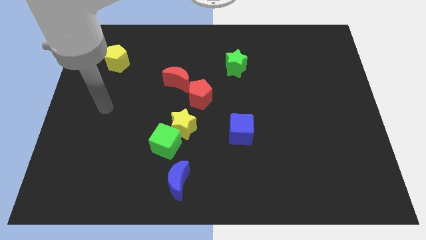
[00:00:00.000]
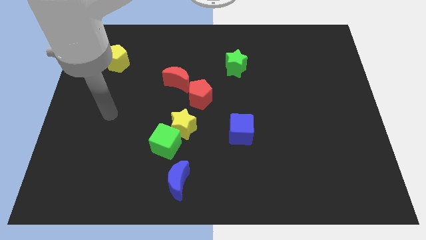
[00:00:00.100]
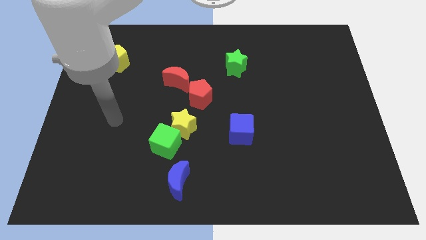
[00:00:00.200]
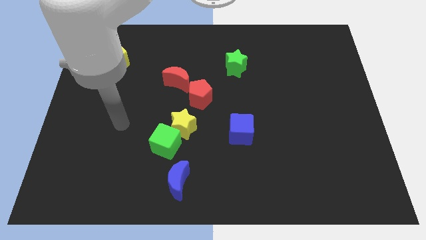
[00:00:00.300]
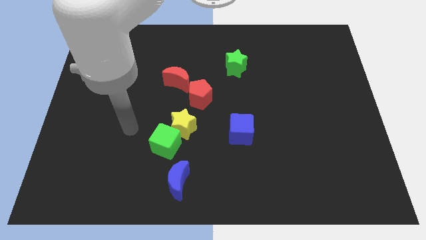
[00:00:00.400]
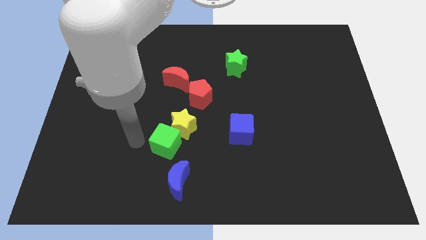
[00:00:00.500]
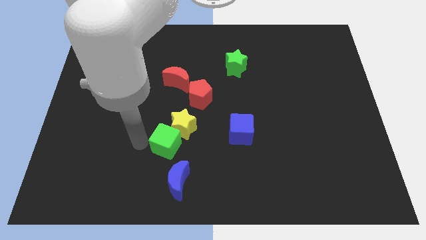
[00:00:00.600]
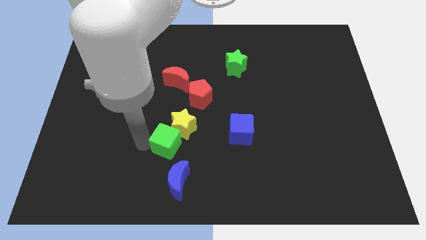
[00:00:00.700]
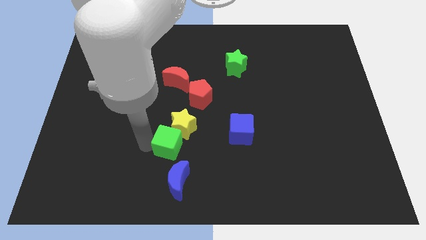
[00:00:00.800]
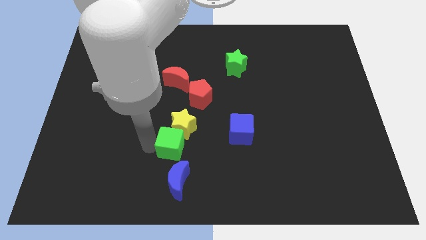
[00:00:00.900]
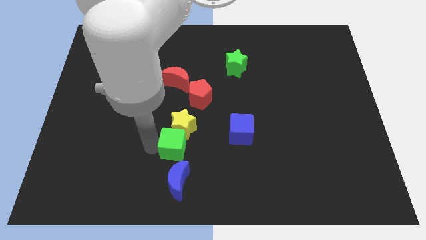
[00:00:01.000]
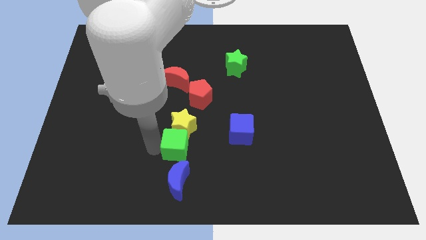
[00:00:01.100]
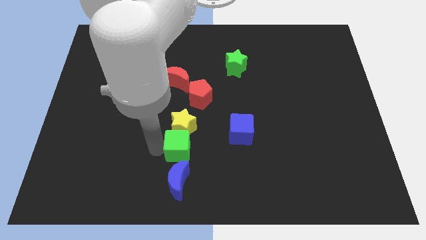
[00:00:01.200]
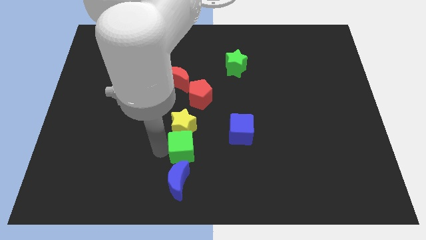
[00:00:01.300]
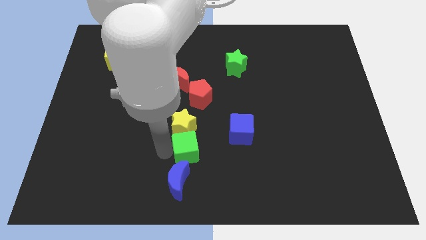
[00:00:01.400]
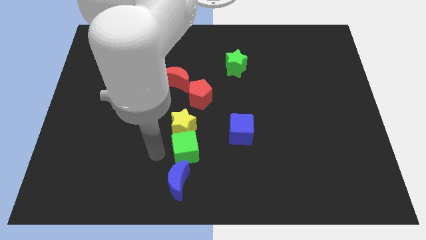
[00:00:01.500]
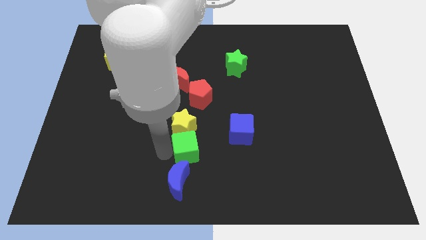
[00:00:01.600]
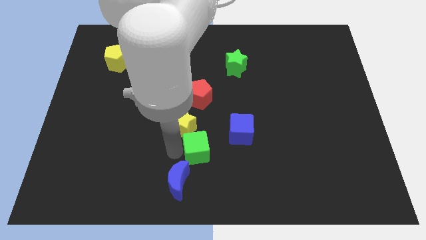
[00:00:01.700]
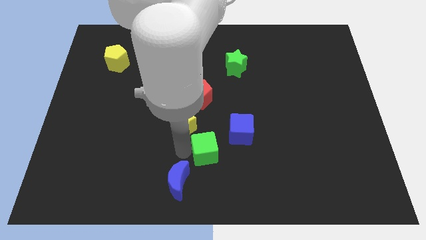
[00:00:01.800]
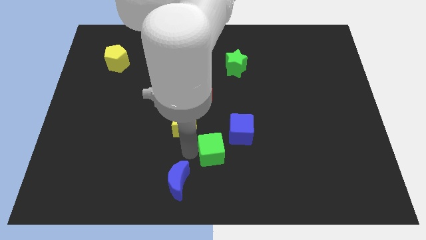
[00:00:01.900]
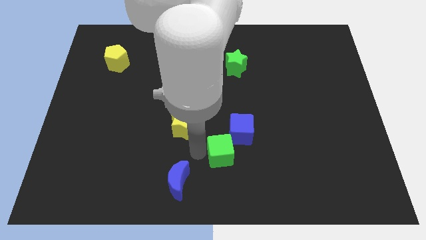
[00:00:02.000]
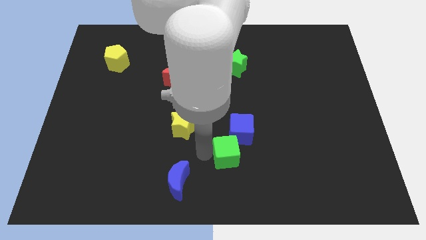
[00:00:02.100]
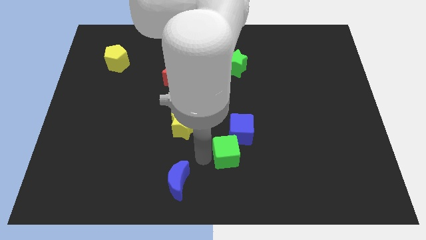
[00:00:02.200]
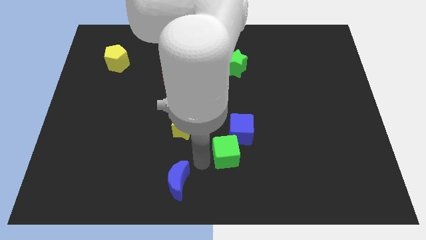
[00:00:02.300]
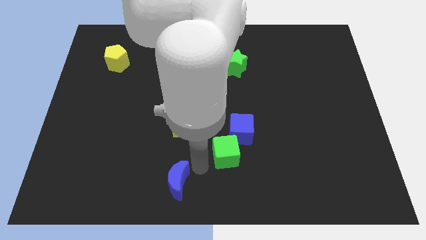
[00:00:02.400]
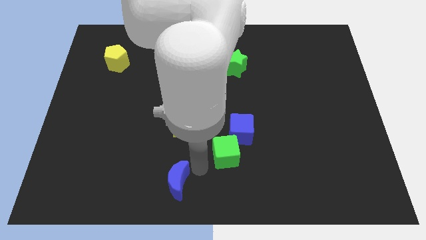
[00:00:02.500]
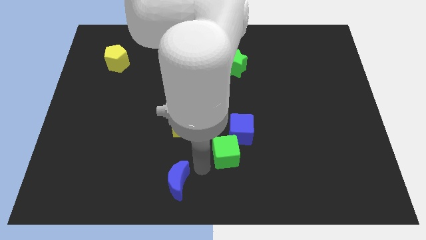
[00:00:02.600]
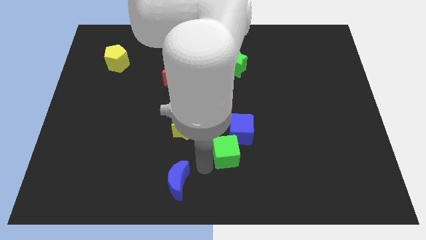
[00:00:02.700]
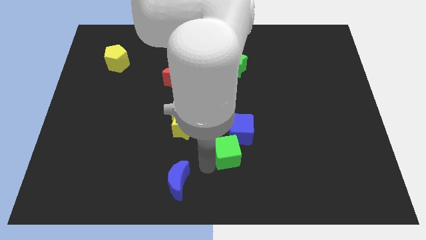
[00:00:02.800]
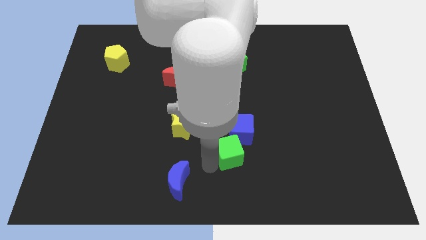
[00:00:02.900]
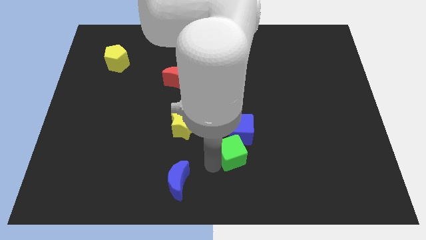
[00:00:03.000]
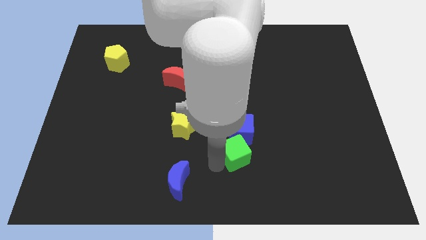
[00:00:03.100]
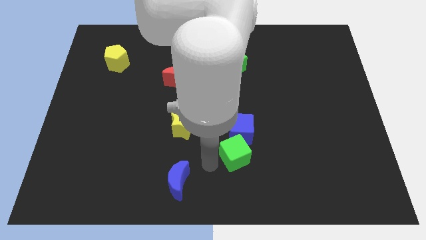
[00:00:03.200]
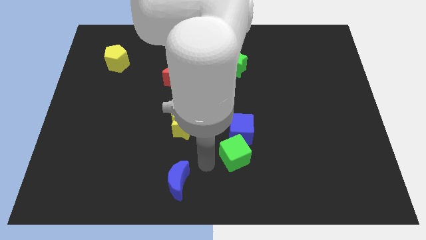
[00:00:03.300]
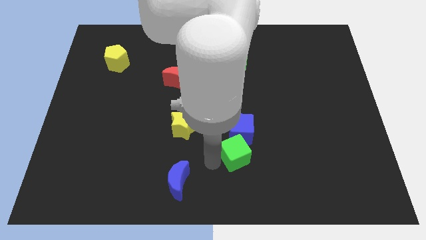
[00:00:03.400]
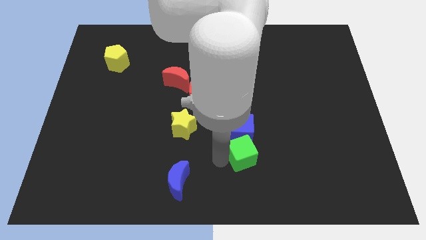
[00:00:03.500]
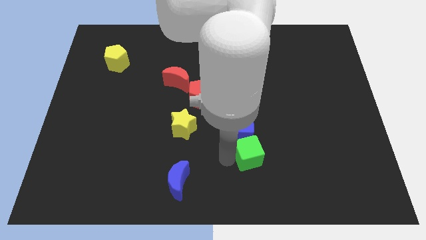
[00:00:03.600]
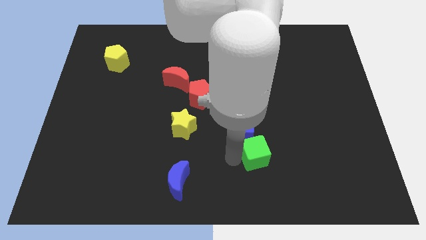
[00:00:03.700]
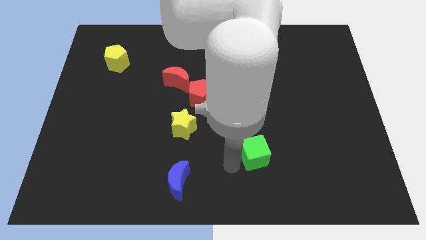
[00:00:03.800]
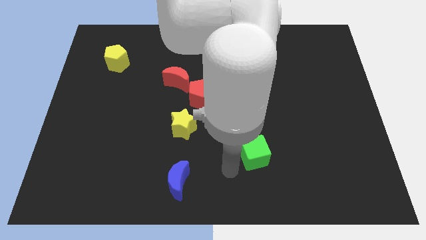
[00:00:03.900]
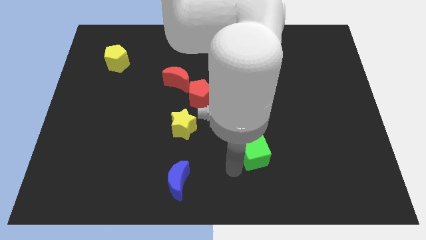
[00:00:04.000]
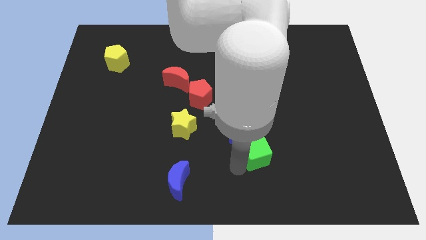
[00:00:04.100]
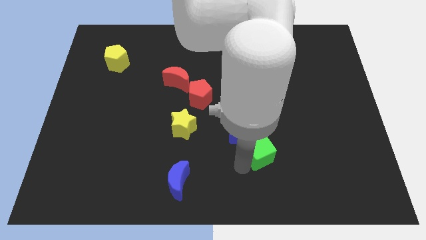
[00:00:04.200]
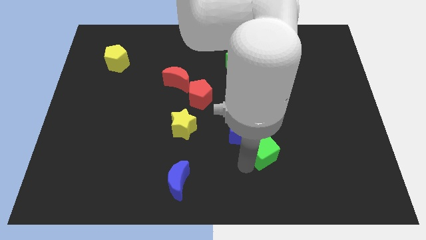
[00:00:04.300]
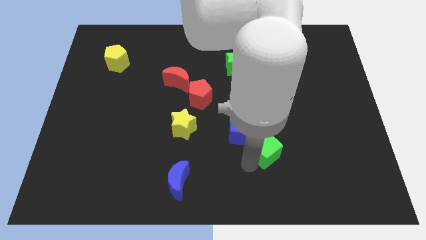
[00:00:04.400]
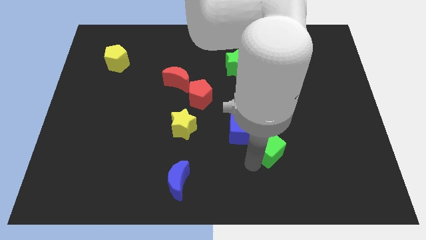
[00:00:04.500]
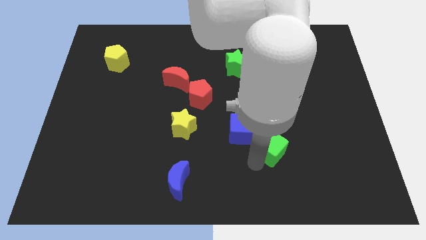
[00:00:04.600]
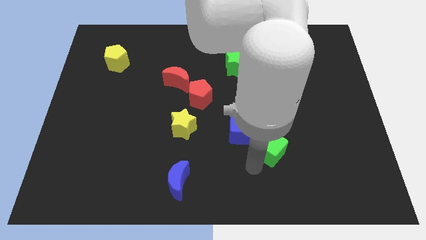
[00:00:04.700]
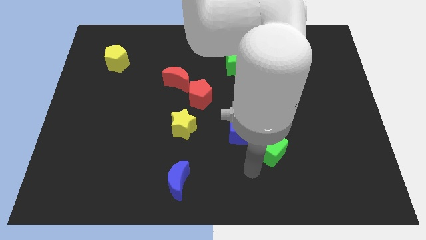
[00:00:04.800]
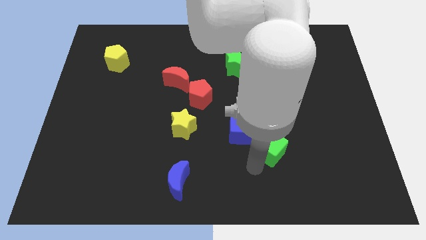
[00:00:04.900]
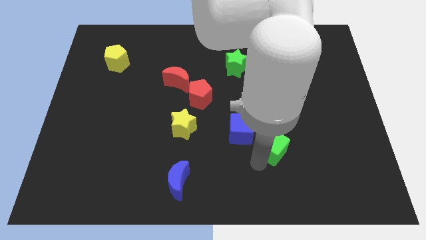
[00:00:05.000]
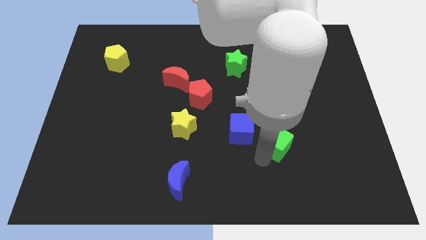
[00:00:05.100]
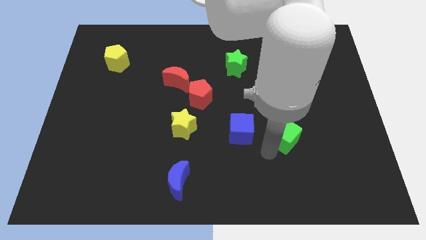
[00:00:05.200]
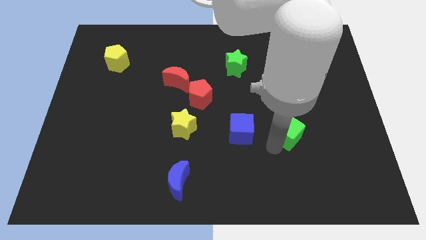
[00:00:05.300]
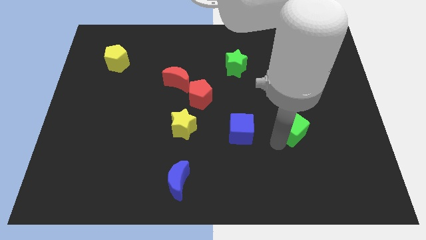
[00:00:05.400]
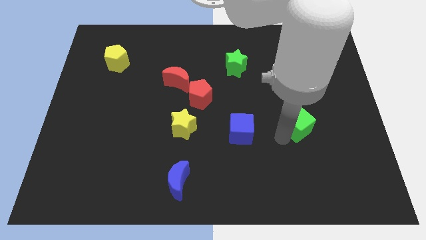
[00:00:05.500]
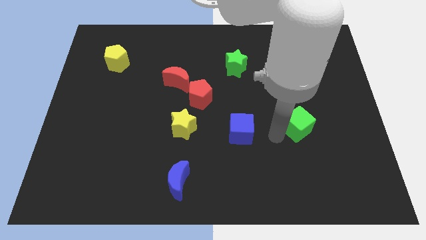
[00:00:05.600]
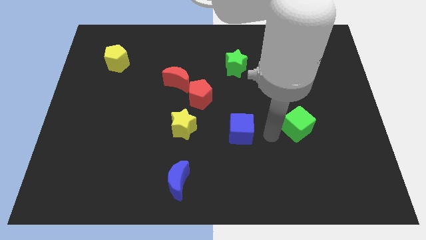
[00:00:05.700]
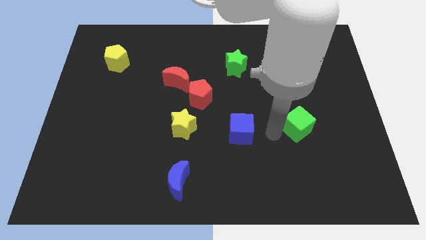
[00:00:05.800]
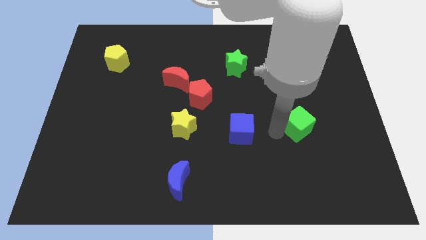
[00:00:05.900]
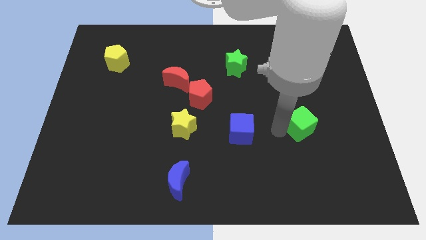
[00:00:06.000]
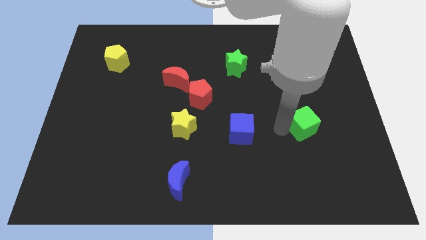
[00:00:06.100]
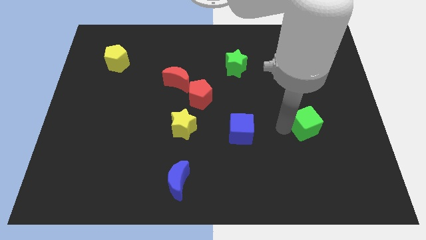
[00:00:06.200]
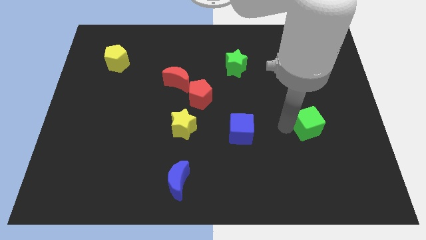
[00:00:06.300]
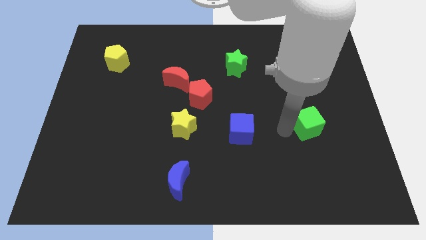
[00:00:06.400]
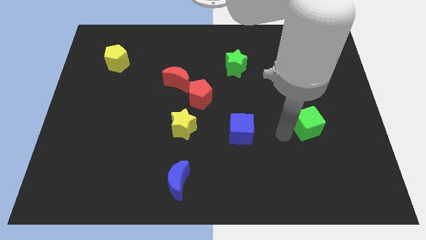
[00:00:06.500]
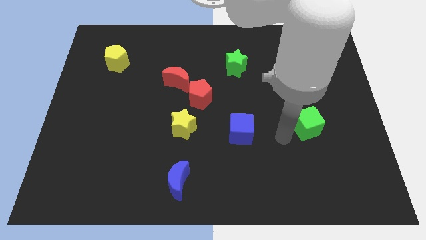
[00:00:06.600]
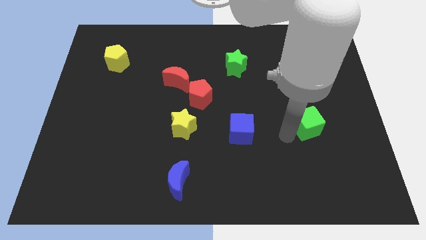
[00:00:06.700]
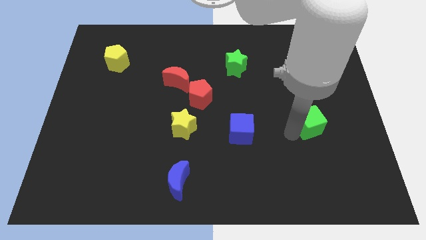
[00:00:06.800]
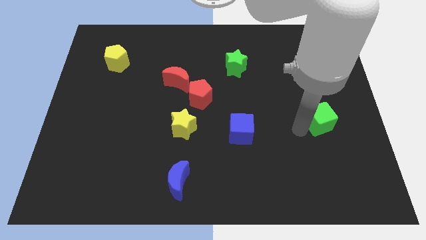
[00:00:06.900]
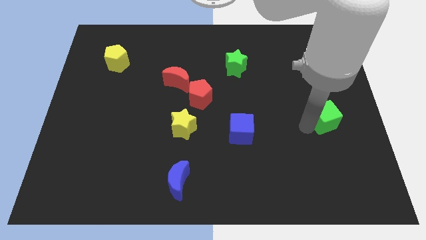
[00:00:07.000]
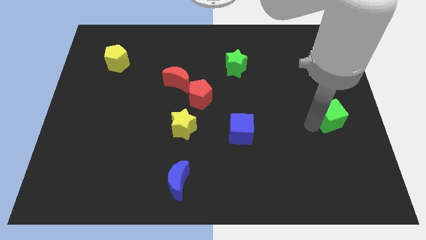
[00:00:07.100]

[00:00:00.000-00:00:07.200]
move the green cube to the center right
